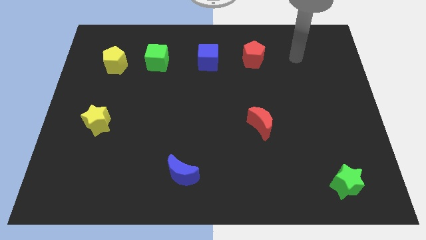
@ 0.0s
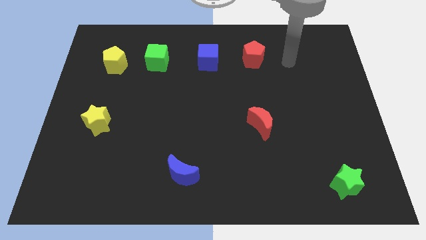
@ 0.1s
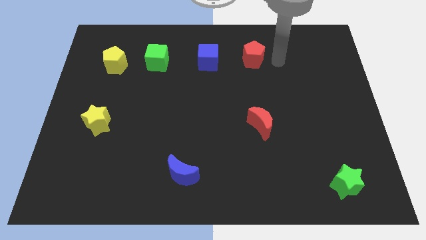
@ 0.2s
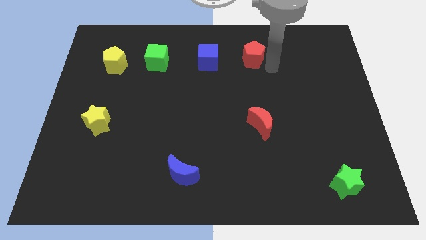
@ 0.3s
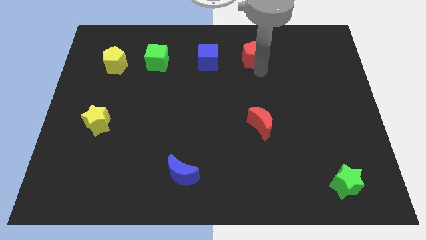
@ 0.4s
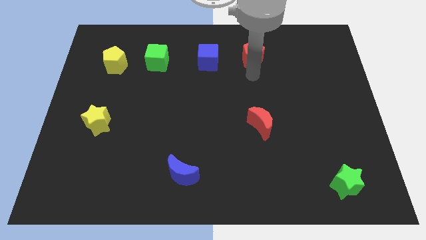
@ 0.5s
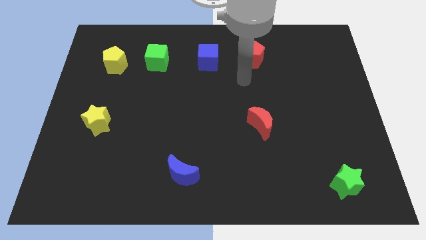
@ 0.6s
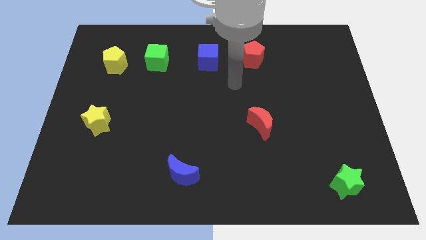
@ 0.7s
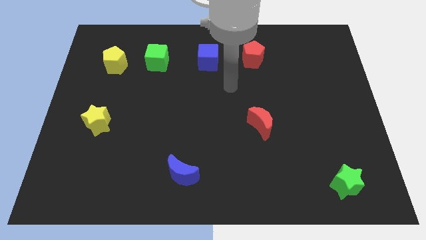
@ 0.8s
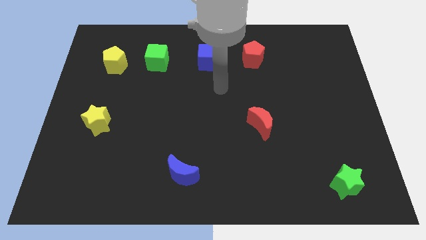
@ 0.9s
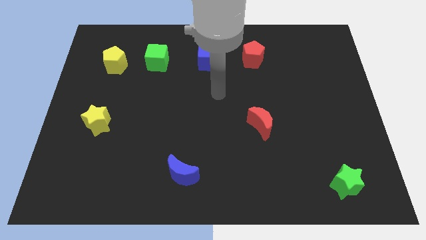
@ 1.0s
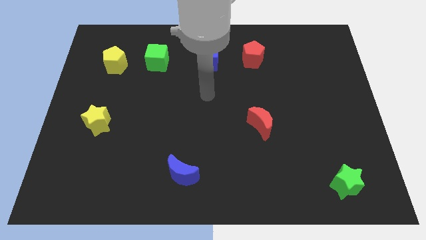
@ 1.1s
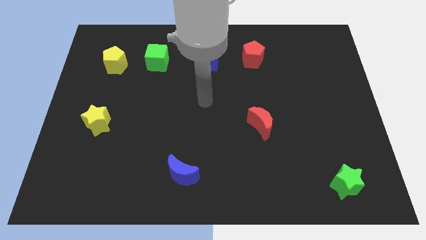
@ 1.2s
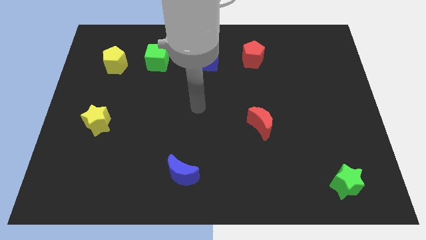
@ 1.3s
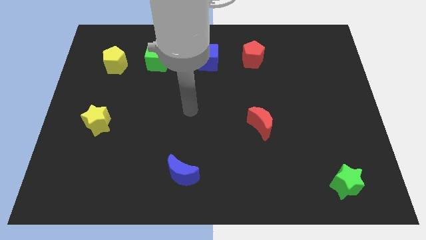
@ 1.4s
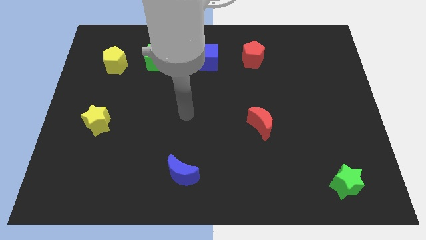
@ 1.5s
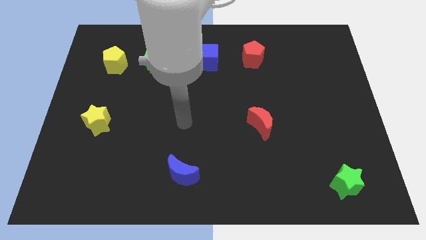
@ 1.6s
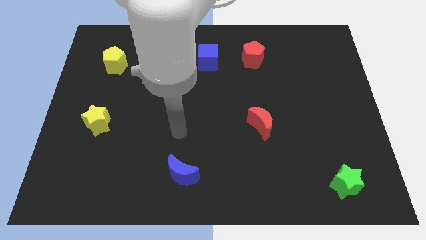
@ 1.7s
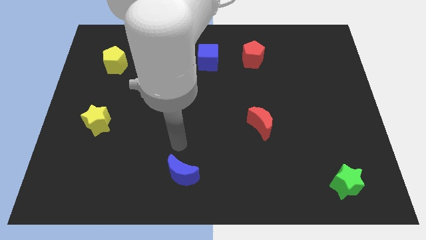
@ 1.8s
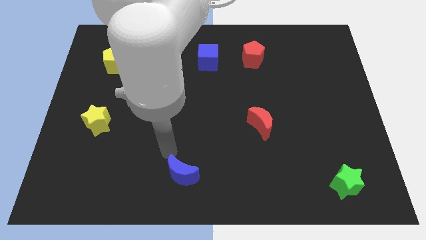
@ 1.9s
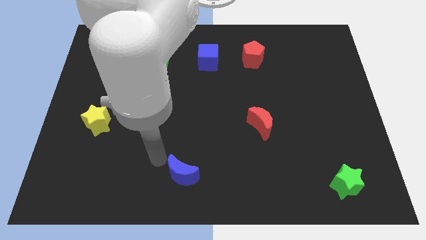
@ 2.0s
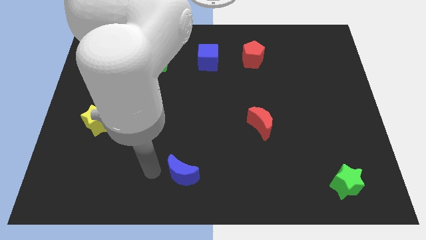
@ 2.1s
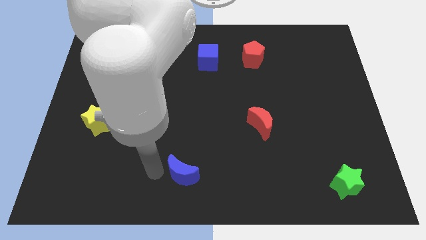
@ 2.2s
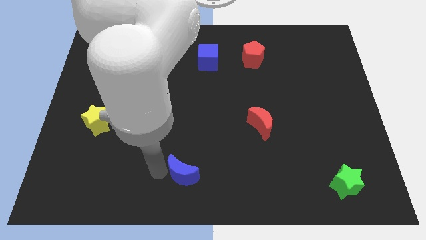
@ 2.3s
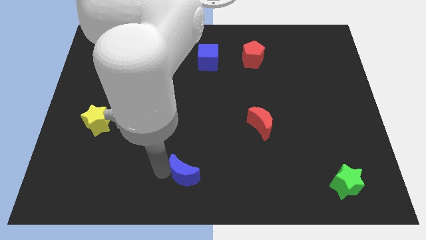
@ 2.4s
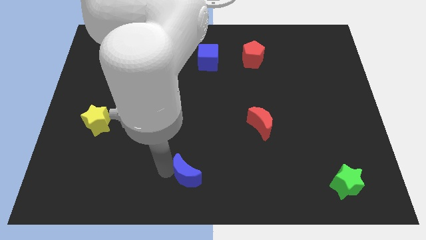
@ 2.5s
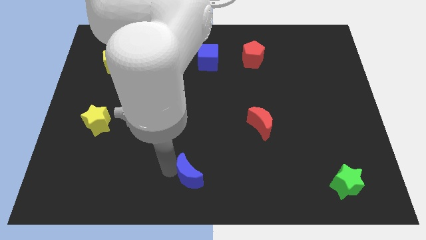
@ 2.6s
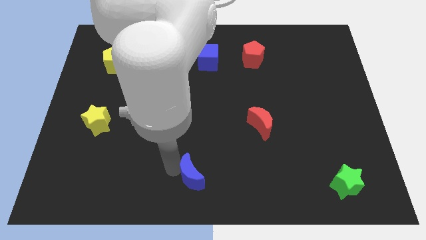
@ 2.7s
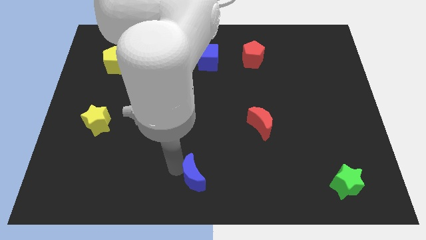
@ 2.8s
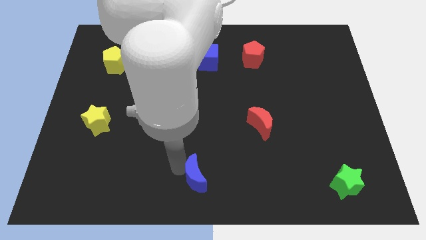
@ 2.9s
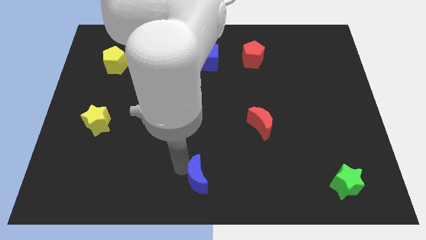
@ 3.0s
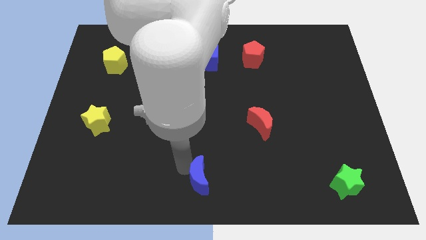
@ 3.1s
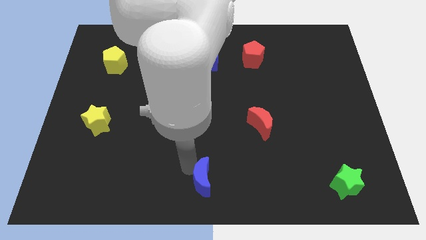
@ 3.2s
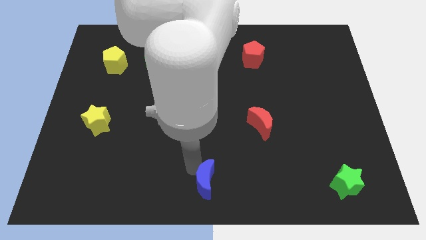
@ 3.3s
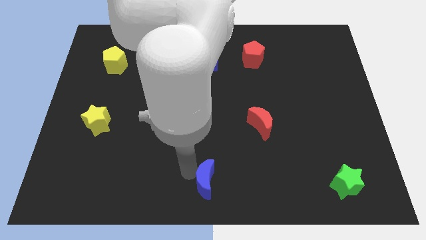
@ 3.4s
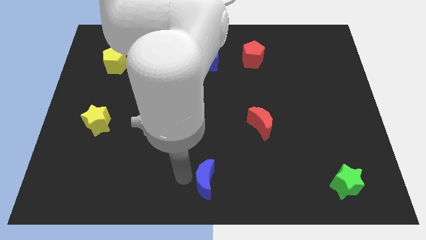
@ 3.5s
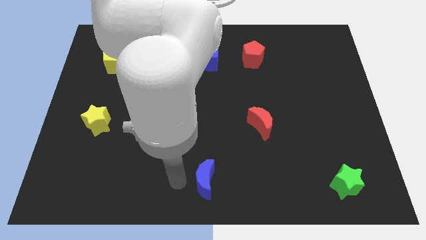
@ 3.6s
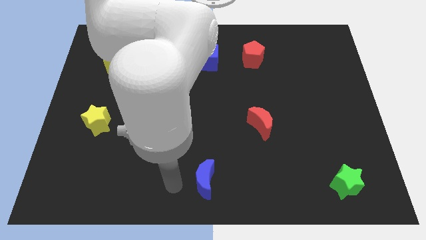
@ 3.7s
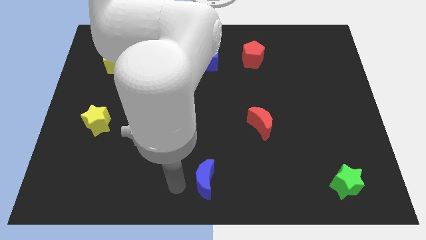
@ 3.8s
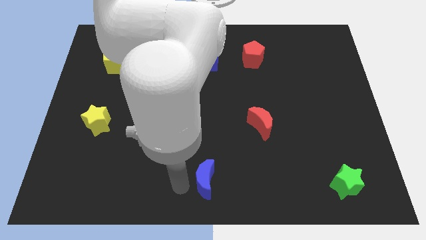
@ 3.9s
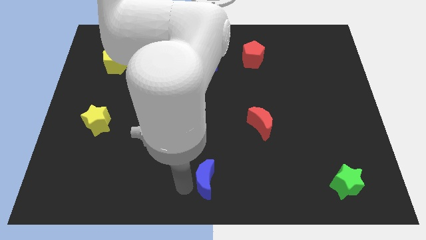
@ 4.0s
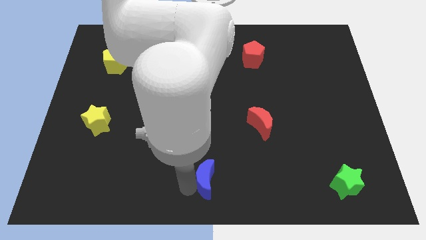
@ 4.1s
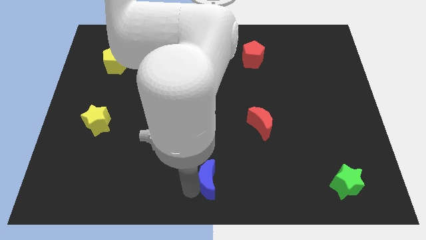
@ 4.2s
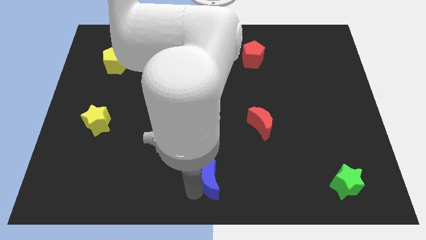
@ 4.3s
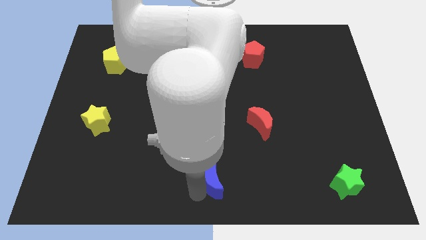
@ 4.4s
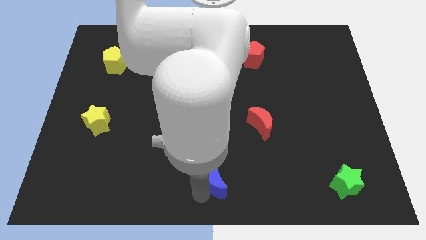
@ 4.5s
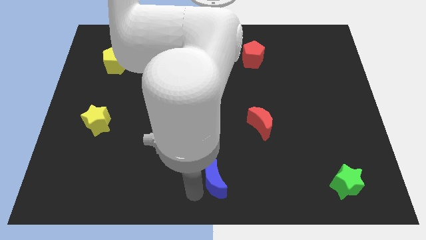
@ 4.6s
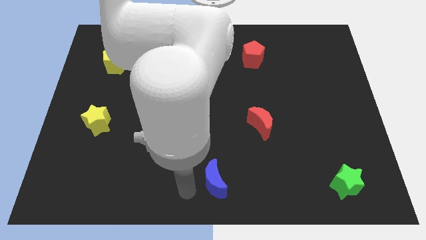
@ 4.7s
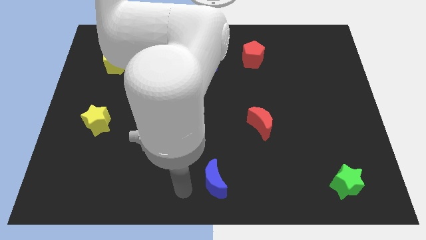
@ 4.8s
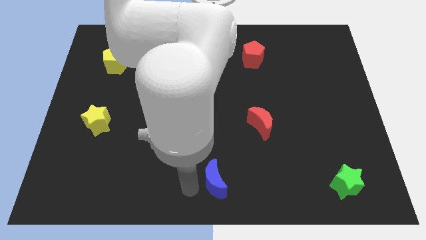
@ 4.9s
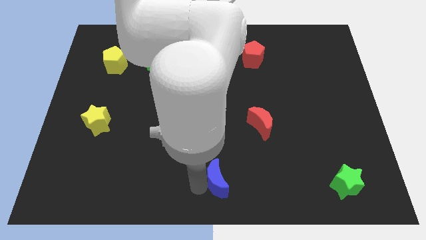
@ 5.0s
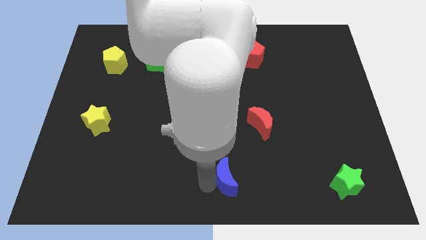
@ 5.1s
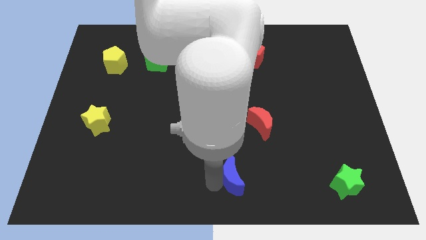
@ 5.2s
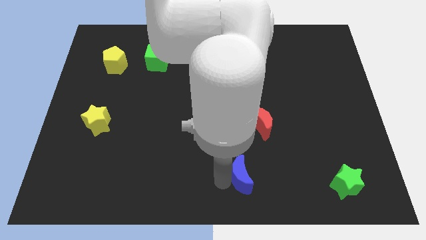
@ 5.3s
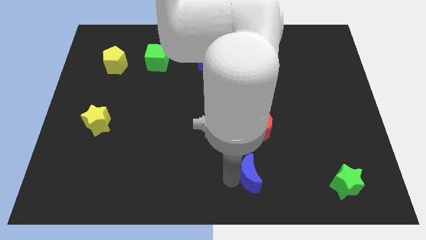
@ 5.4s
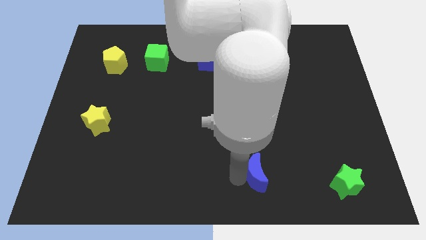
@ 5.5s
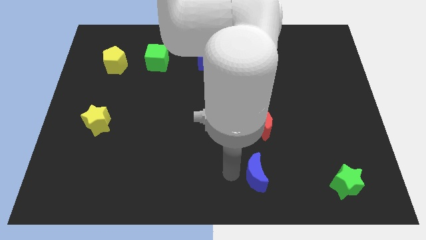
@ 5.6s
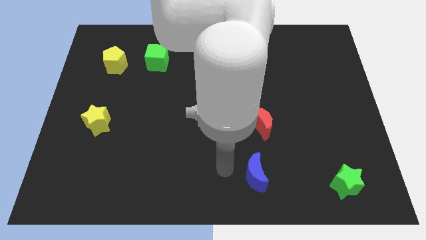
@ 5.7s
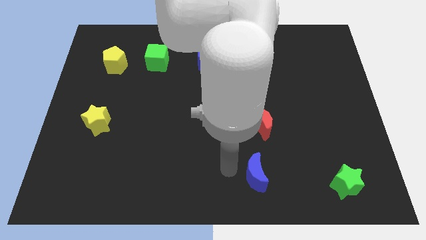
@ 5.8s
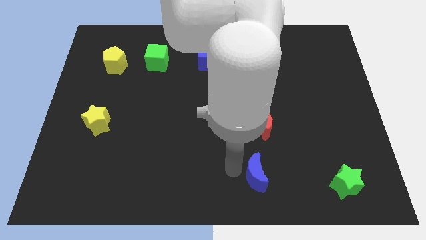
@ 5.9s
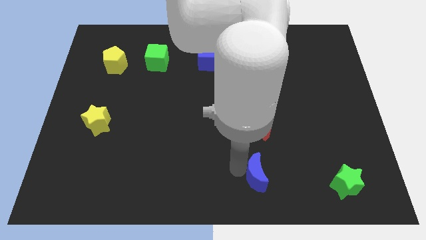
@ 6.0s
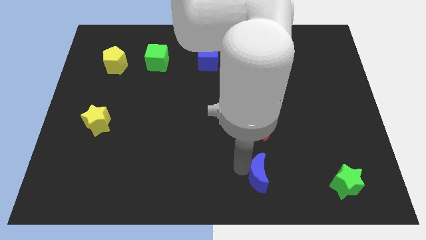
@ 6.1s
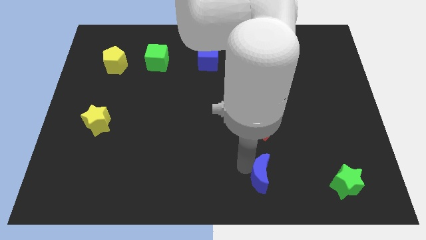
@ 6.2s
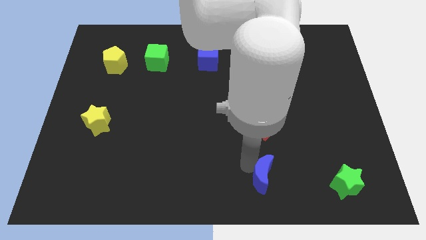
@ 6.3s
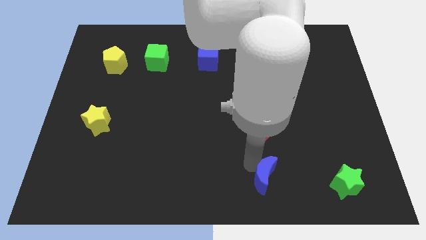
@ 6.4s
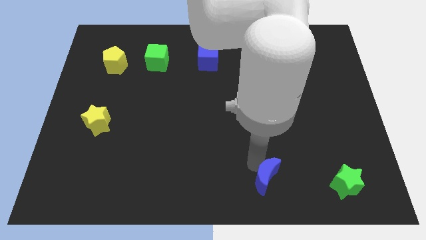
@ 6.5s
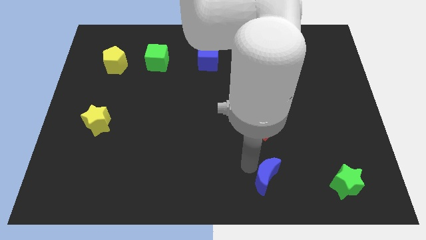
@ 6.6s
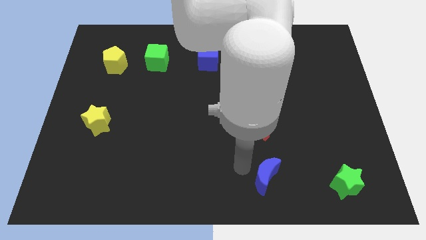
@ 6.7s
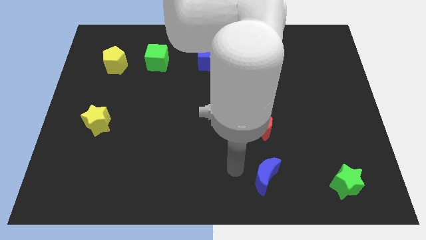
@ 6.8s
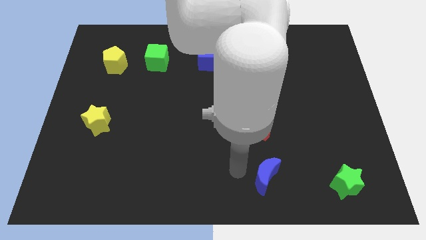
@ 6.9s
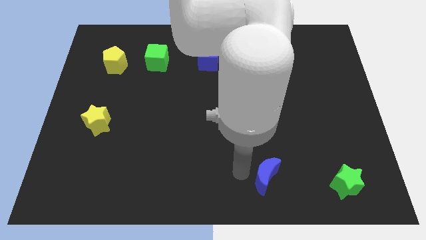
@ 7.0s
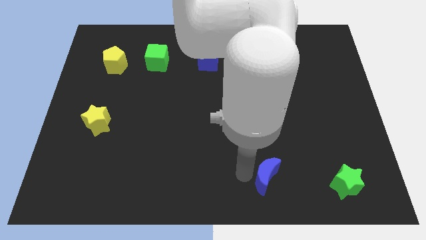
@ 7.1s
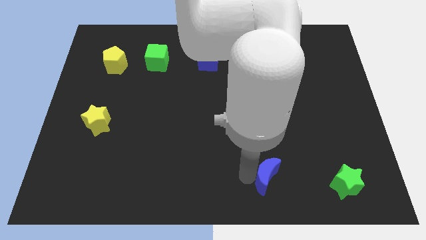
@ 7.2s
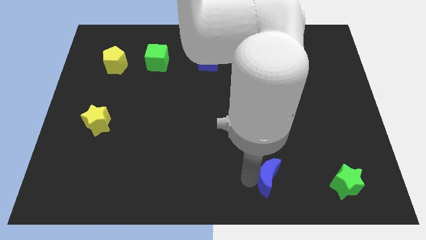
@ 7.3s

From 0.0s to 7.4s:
move the blue moon to the left side of the green star

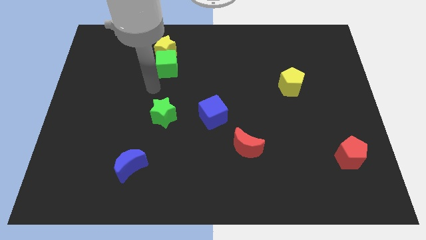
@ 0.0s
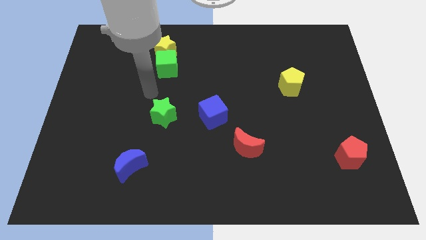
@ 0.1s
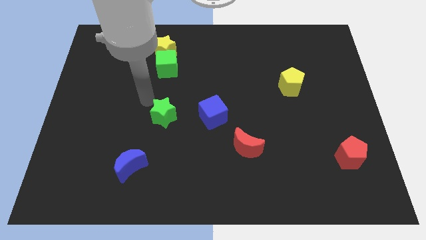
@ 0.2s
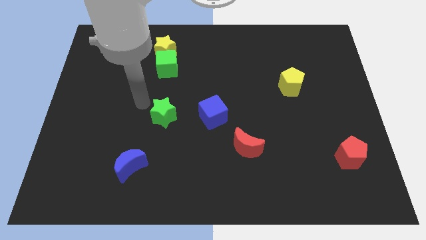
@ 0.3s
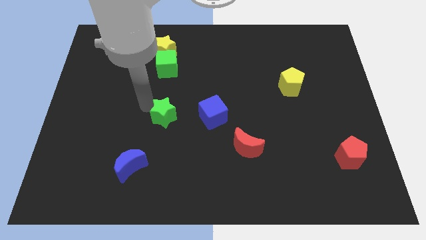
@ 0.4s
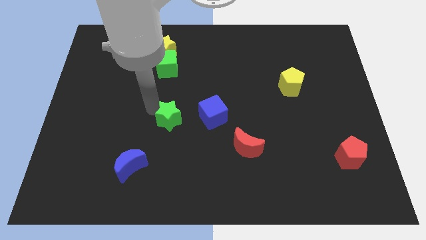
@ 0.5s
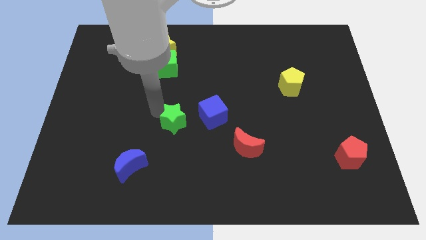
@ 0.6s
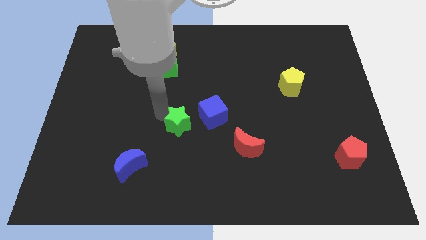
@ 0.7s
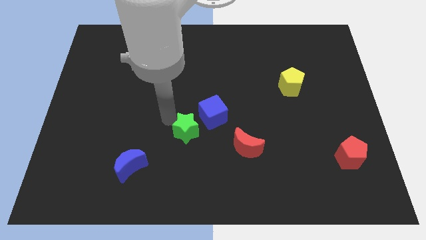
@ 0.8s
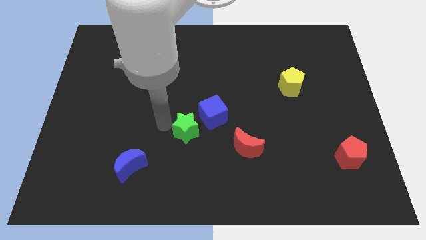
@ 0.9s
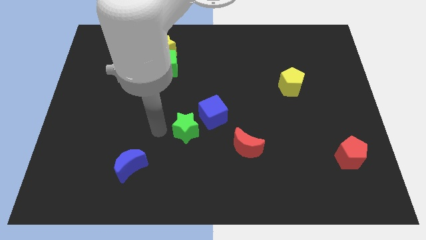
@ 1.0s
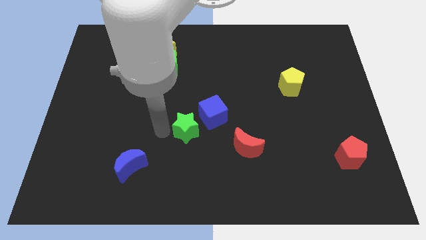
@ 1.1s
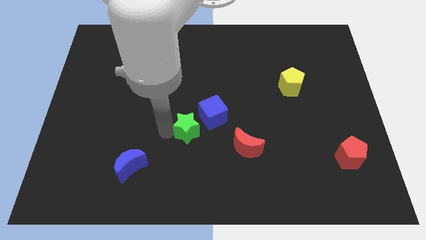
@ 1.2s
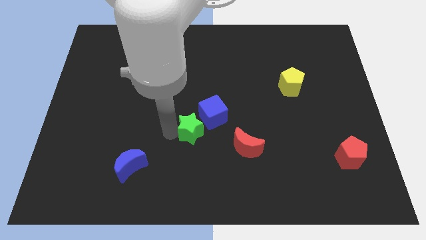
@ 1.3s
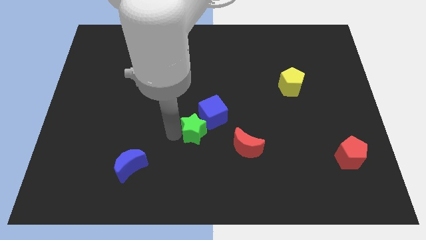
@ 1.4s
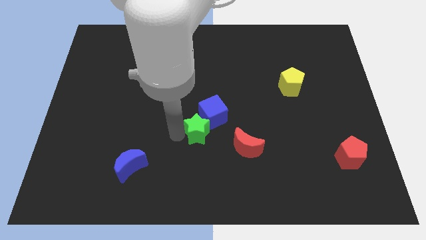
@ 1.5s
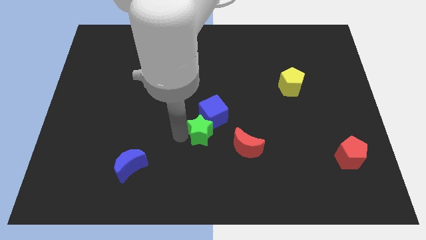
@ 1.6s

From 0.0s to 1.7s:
put the green star to the top left of the red moon
